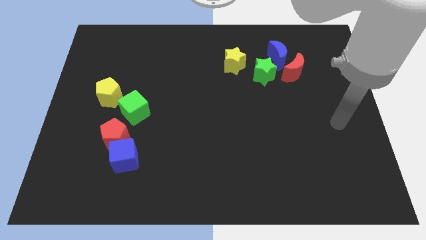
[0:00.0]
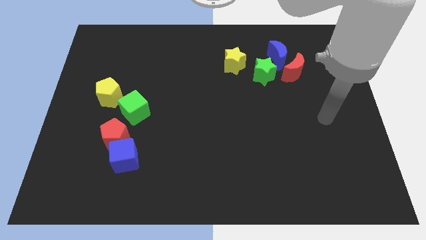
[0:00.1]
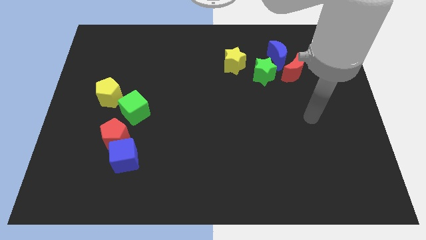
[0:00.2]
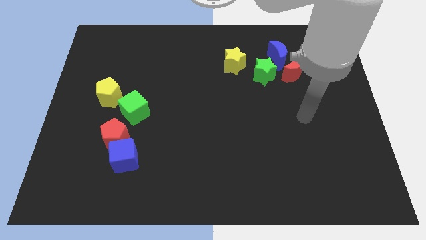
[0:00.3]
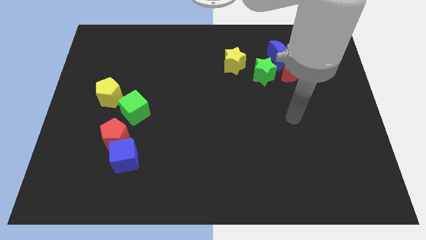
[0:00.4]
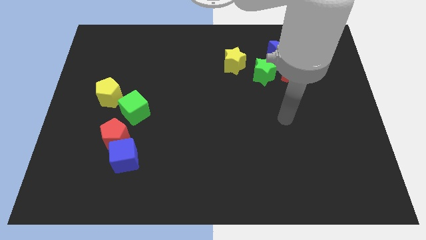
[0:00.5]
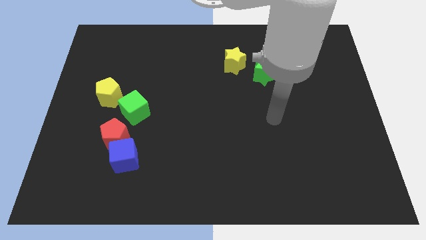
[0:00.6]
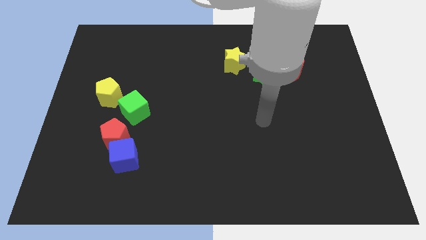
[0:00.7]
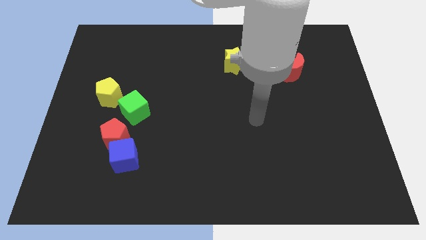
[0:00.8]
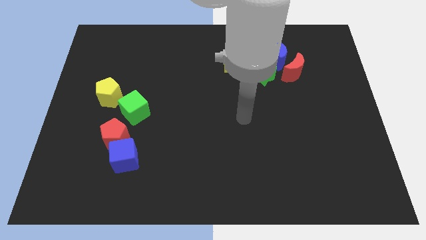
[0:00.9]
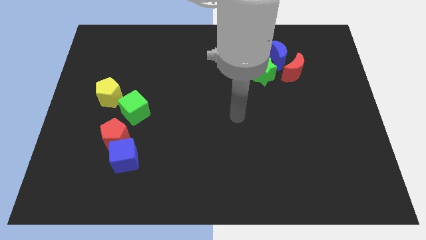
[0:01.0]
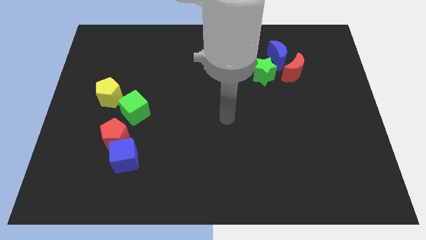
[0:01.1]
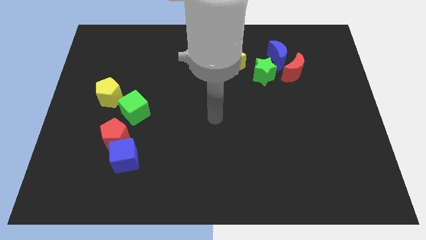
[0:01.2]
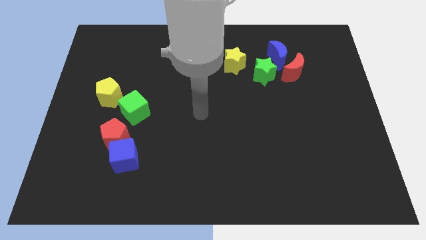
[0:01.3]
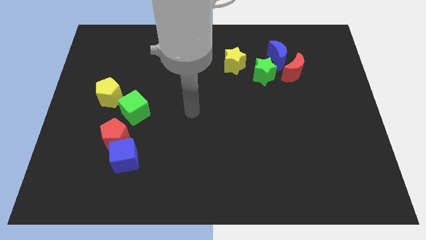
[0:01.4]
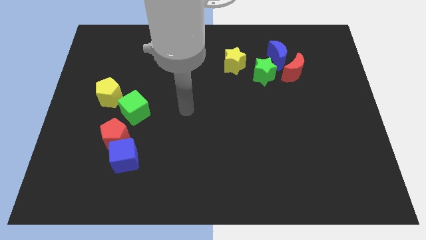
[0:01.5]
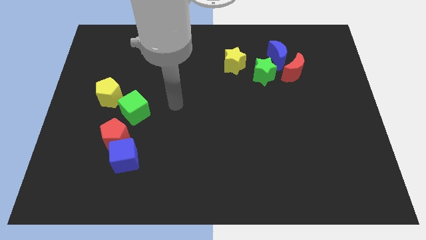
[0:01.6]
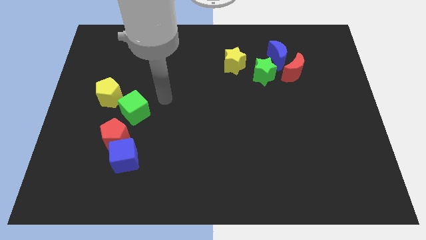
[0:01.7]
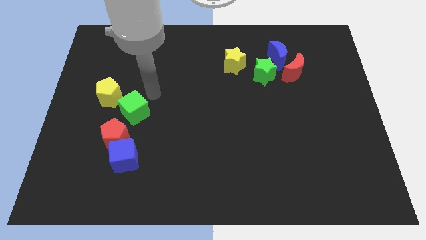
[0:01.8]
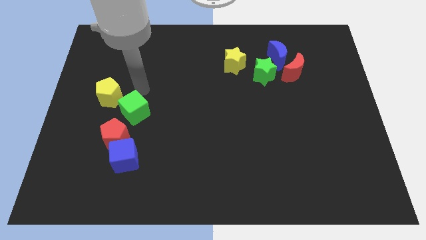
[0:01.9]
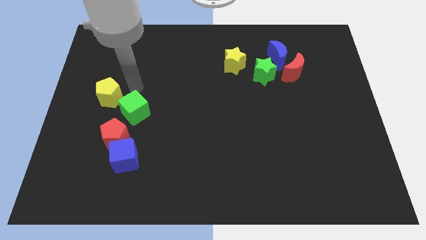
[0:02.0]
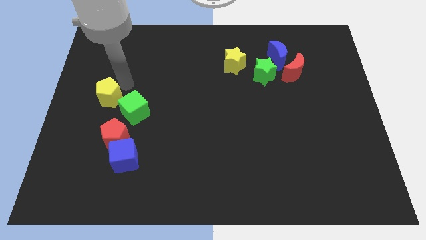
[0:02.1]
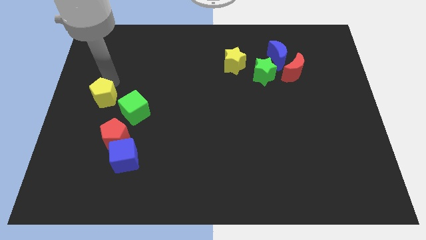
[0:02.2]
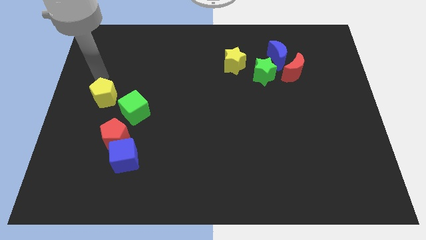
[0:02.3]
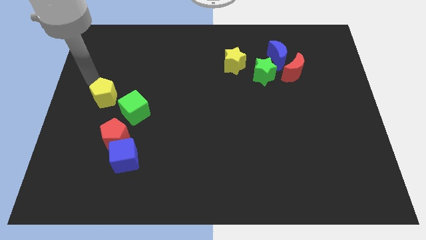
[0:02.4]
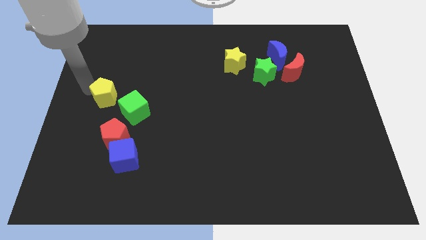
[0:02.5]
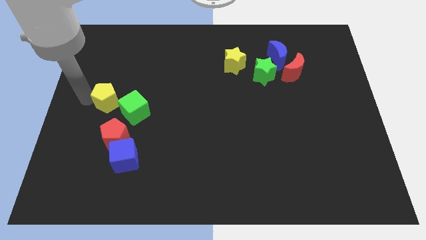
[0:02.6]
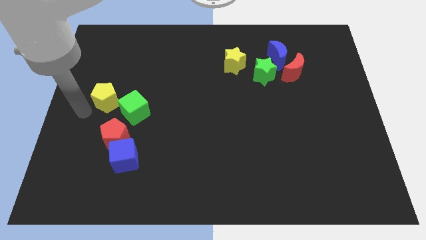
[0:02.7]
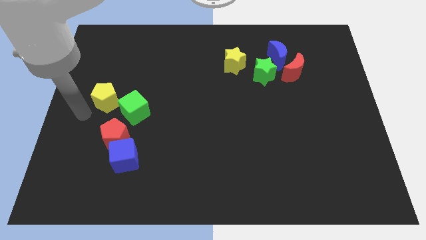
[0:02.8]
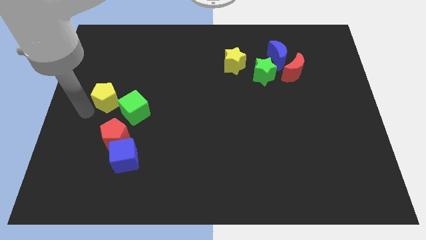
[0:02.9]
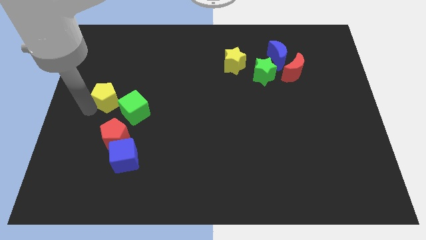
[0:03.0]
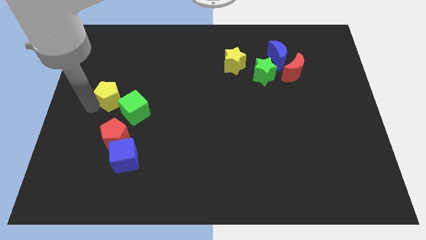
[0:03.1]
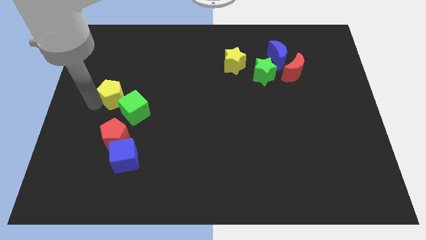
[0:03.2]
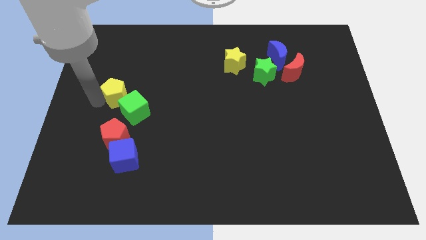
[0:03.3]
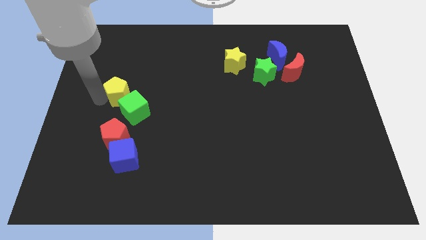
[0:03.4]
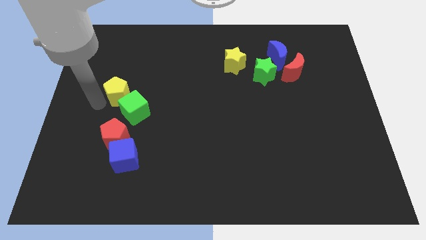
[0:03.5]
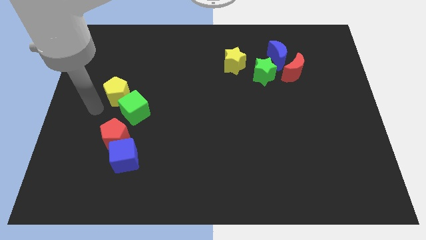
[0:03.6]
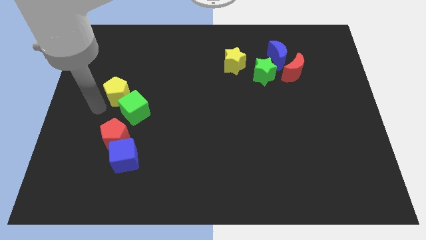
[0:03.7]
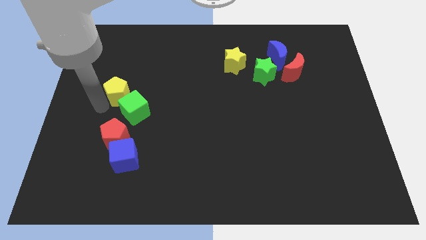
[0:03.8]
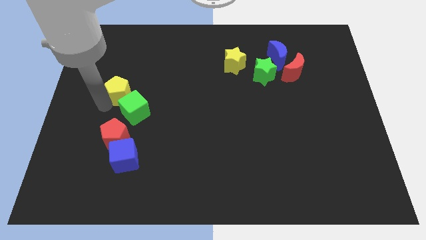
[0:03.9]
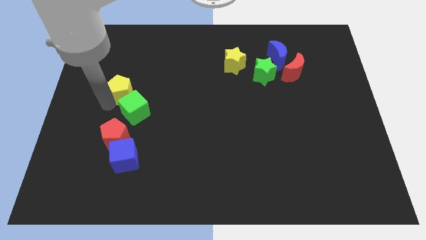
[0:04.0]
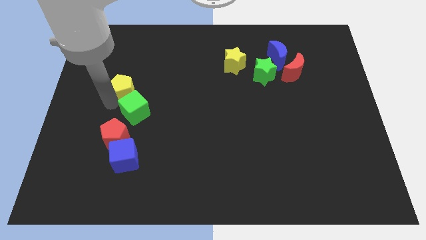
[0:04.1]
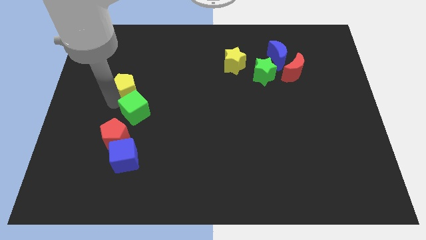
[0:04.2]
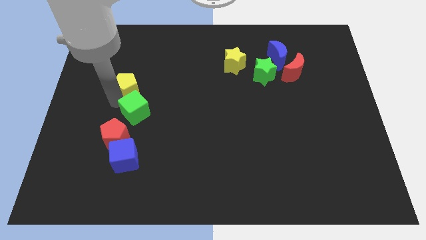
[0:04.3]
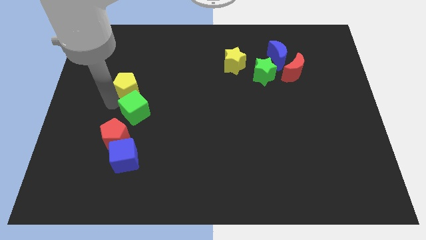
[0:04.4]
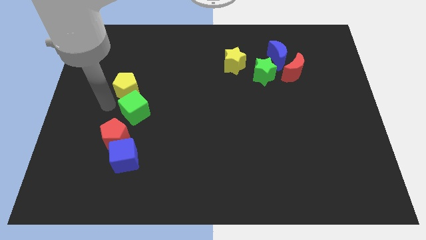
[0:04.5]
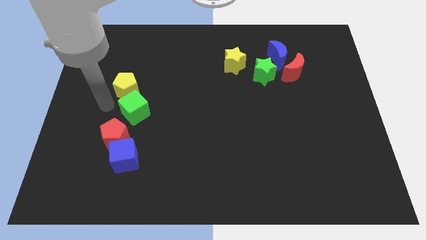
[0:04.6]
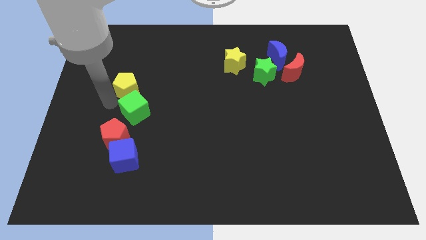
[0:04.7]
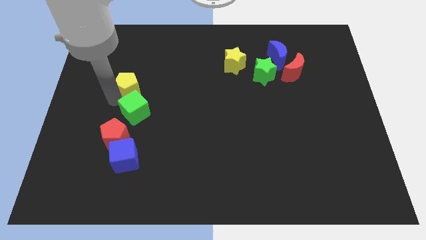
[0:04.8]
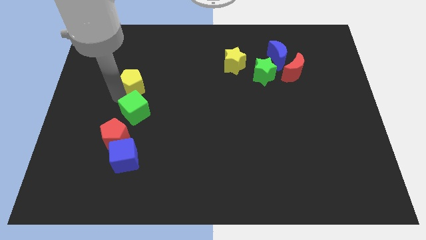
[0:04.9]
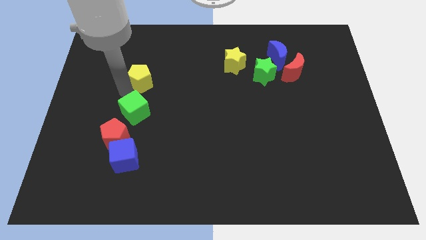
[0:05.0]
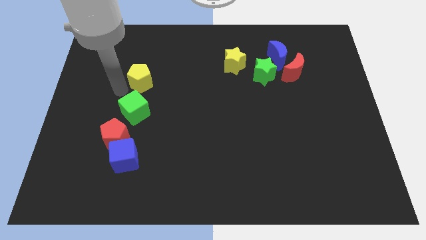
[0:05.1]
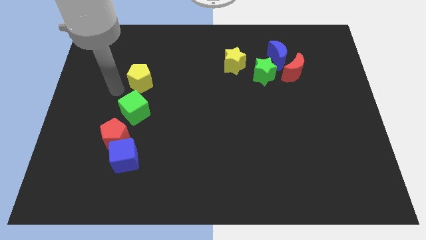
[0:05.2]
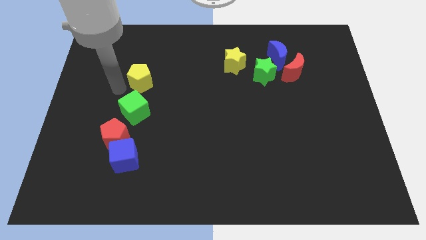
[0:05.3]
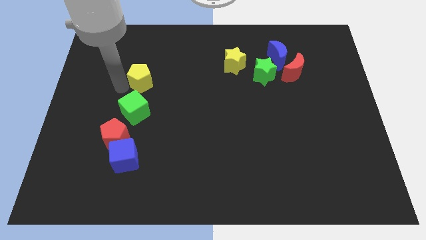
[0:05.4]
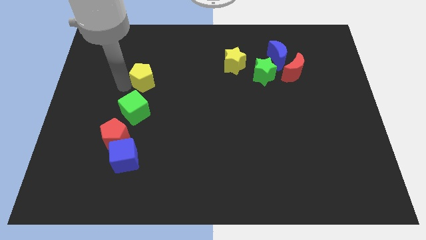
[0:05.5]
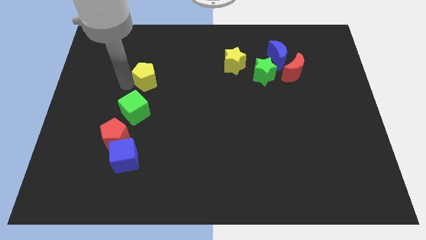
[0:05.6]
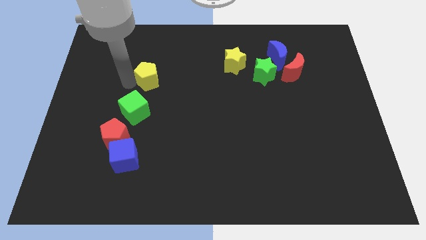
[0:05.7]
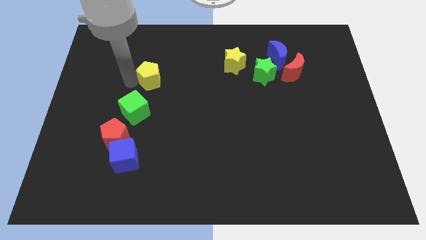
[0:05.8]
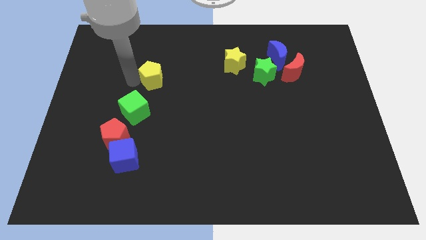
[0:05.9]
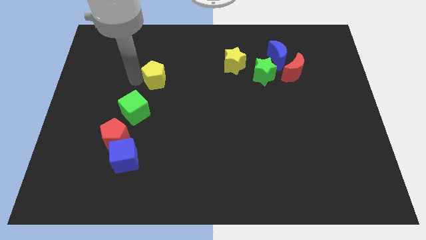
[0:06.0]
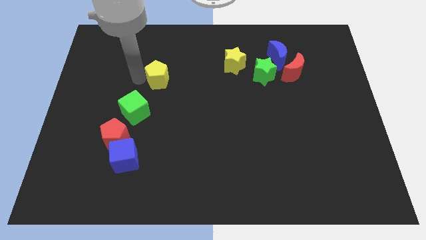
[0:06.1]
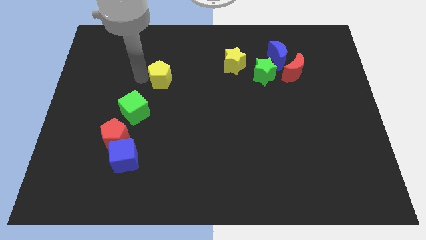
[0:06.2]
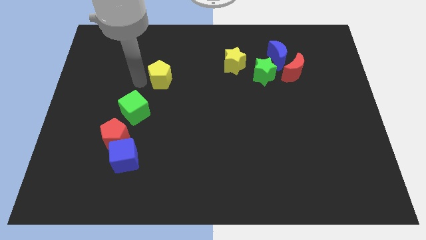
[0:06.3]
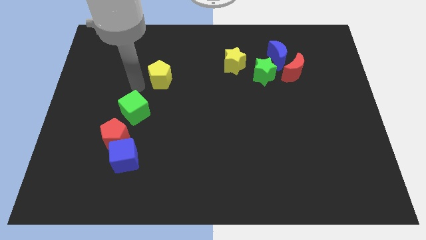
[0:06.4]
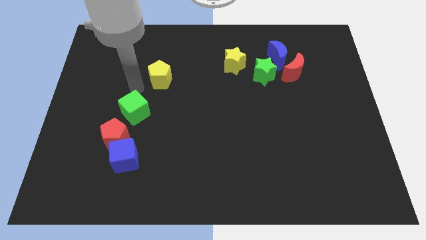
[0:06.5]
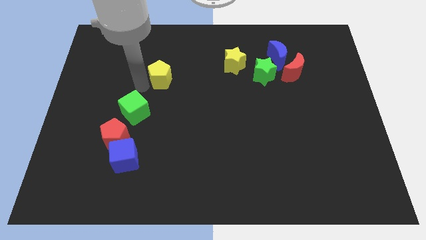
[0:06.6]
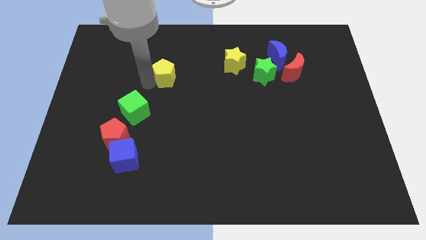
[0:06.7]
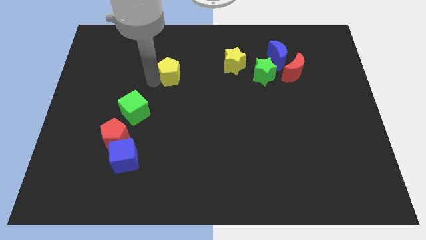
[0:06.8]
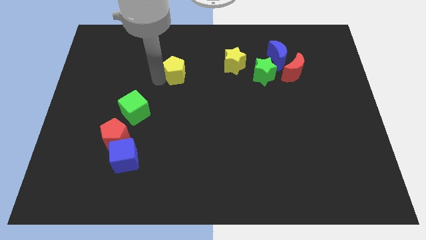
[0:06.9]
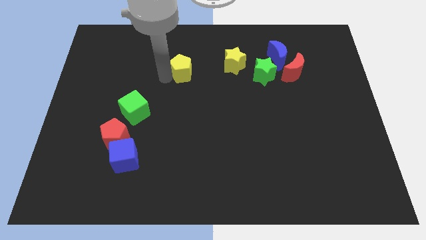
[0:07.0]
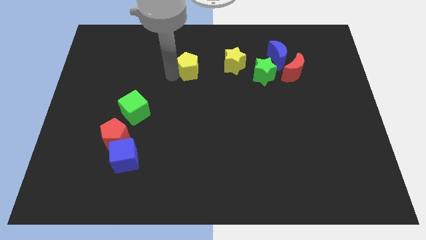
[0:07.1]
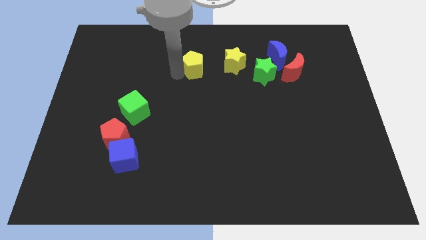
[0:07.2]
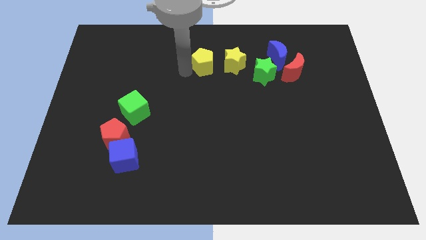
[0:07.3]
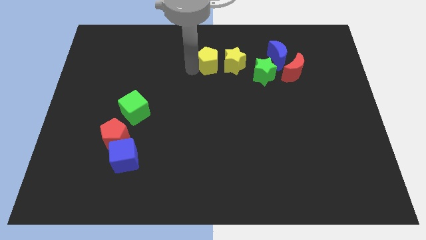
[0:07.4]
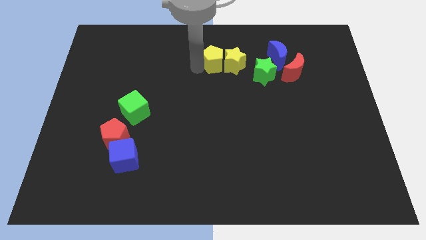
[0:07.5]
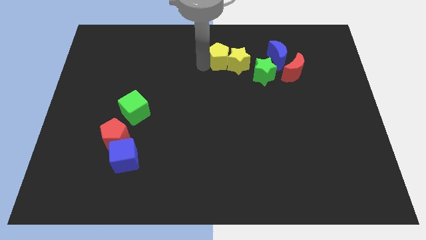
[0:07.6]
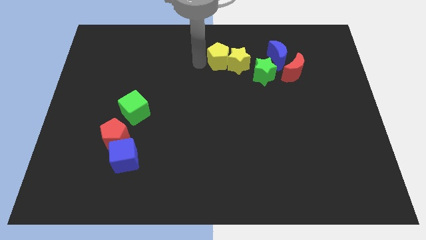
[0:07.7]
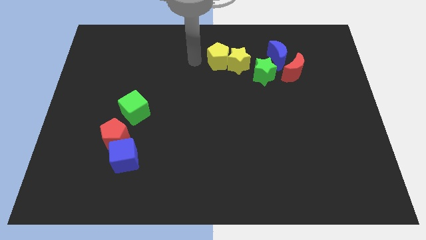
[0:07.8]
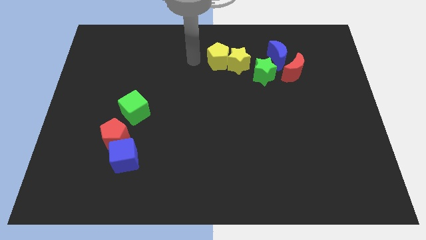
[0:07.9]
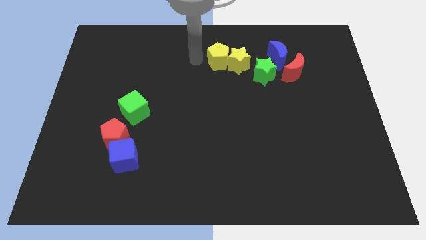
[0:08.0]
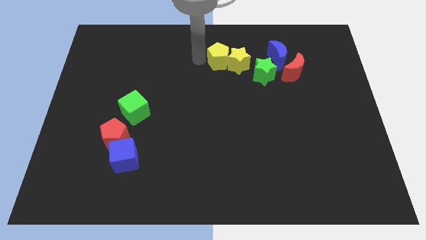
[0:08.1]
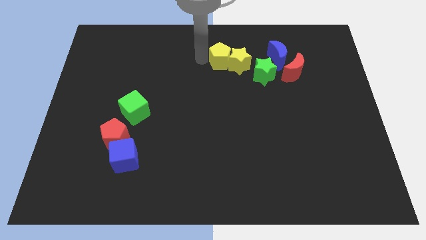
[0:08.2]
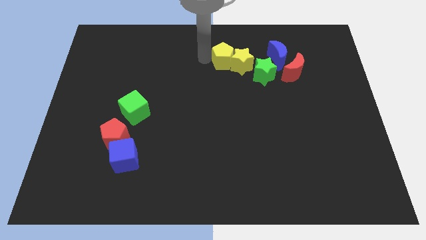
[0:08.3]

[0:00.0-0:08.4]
push the yellow pentagon to the top left of the green star
